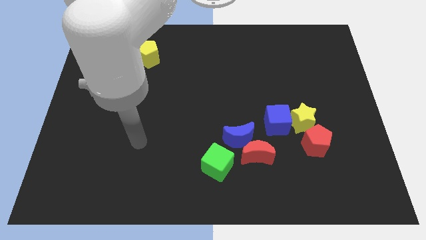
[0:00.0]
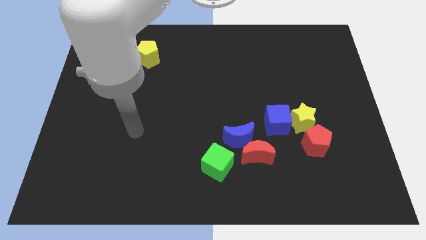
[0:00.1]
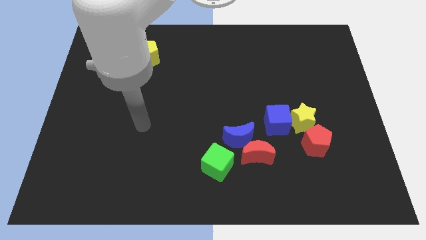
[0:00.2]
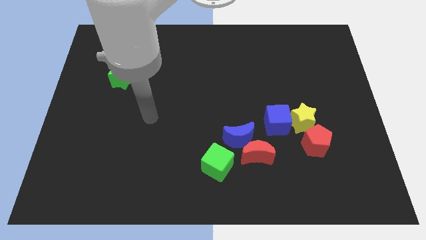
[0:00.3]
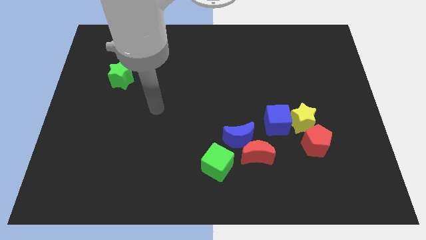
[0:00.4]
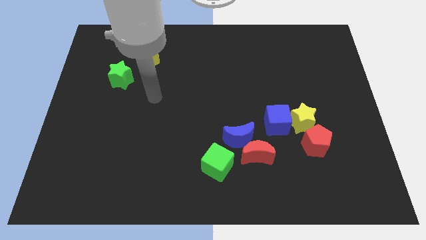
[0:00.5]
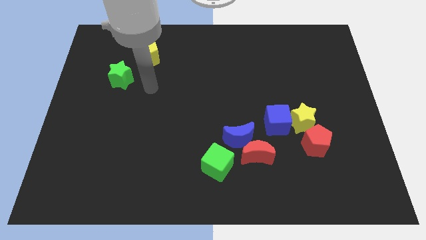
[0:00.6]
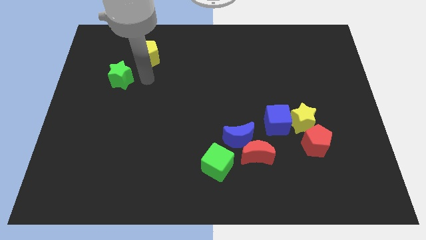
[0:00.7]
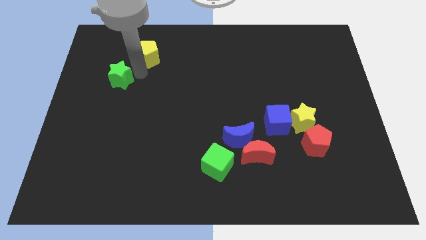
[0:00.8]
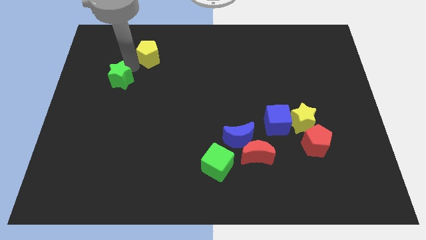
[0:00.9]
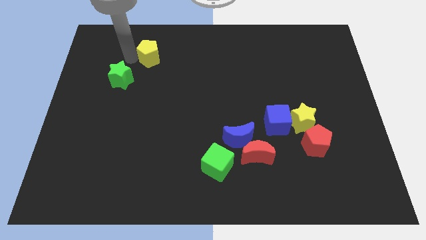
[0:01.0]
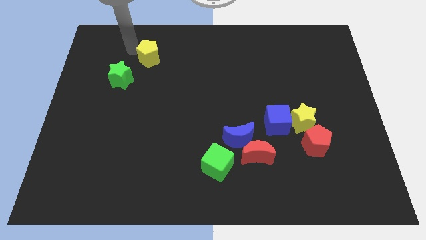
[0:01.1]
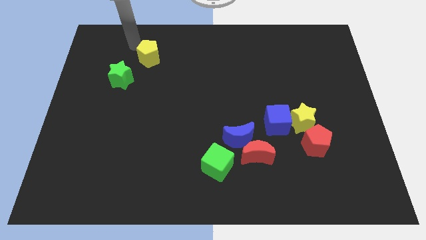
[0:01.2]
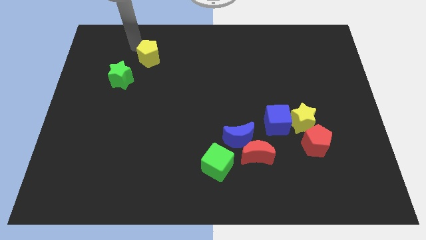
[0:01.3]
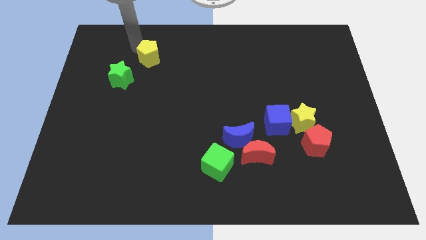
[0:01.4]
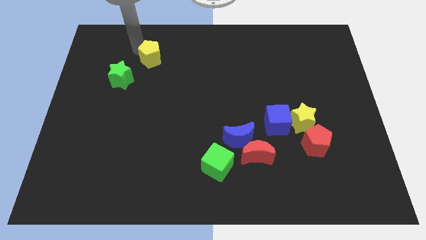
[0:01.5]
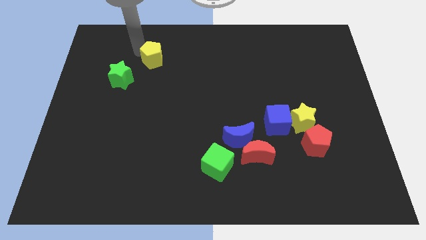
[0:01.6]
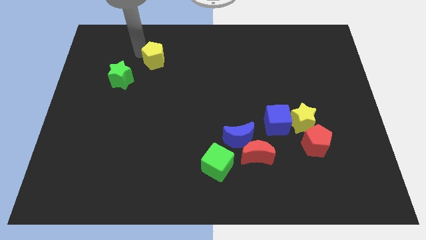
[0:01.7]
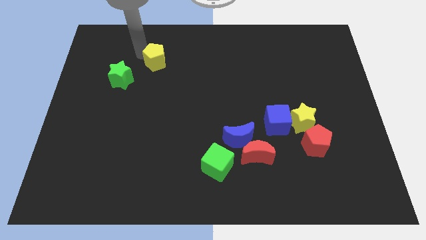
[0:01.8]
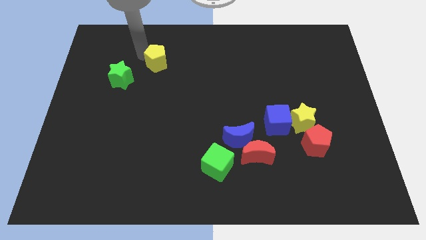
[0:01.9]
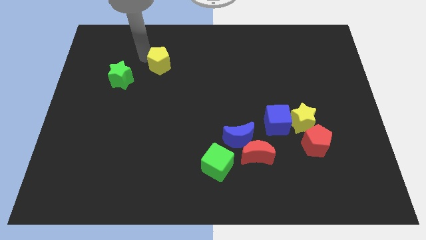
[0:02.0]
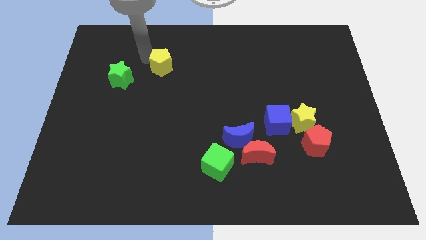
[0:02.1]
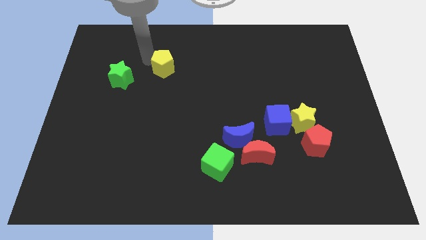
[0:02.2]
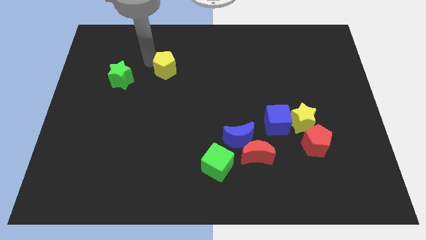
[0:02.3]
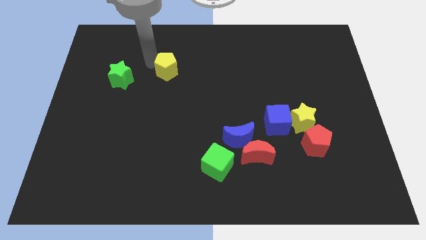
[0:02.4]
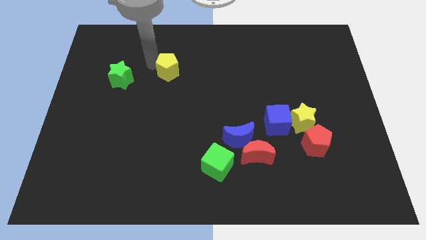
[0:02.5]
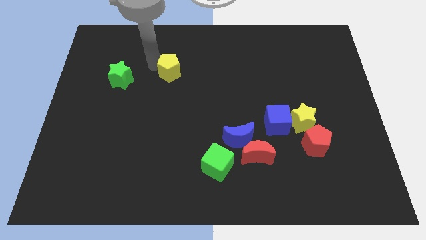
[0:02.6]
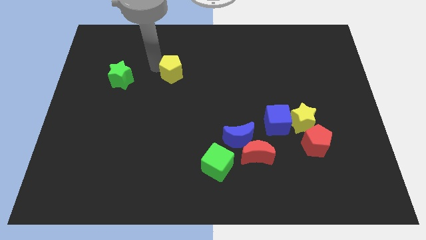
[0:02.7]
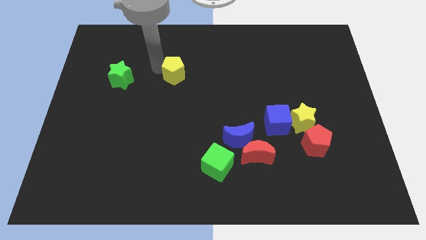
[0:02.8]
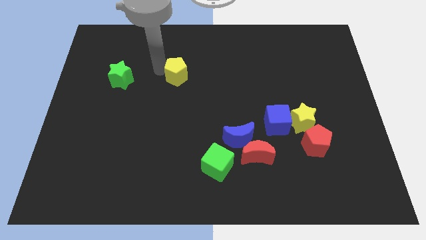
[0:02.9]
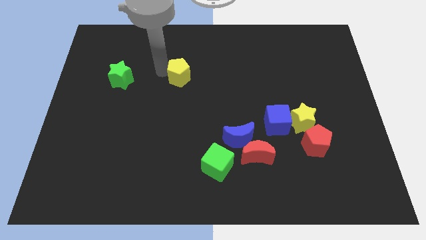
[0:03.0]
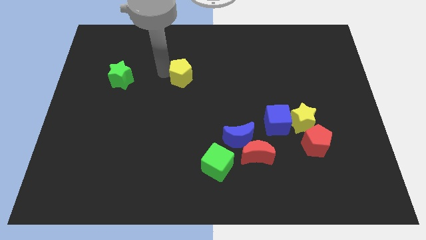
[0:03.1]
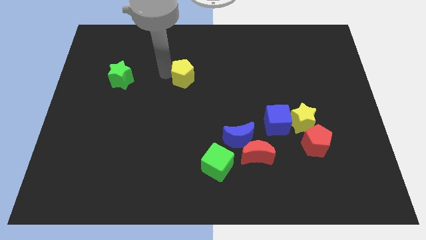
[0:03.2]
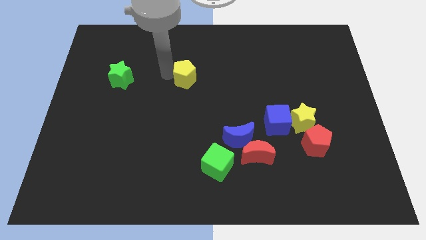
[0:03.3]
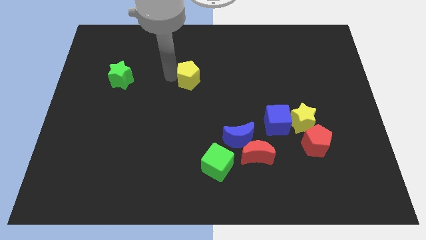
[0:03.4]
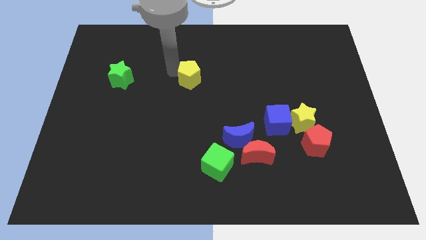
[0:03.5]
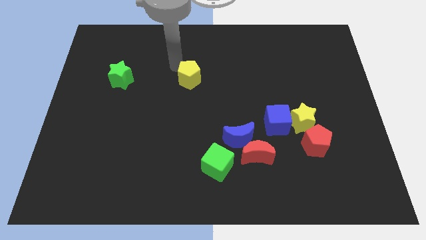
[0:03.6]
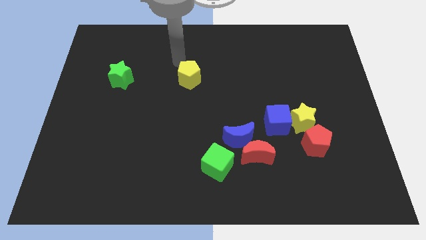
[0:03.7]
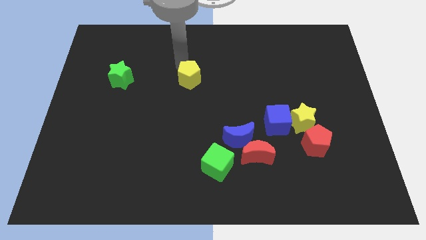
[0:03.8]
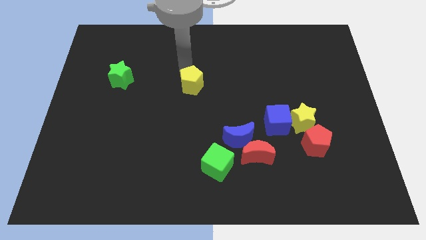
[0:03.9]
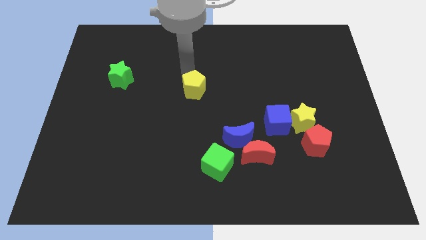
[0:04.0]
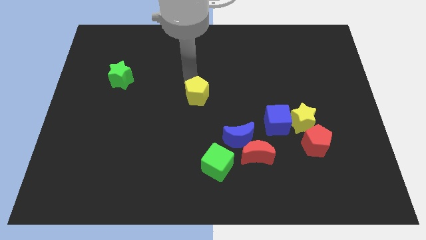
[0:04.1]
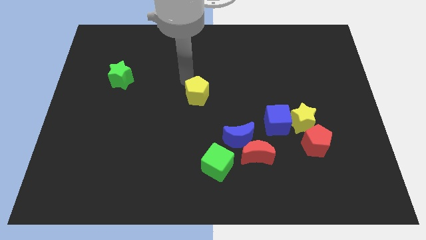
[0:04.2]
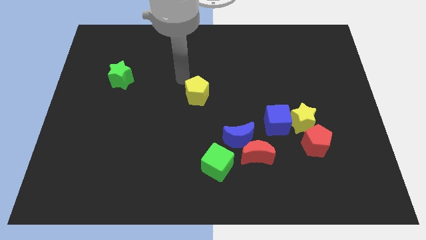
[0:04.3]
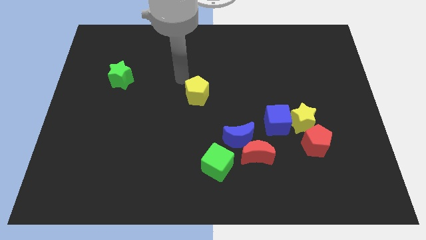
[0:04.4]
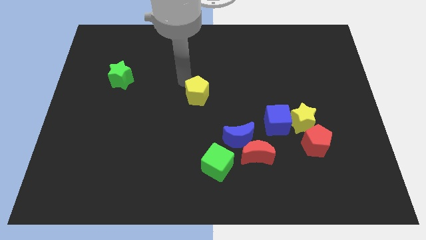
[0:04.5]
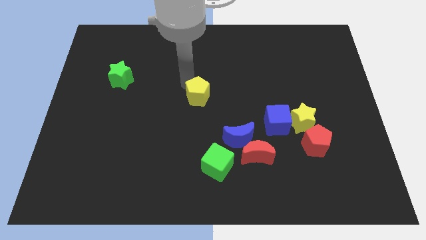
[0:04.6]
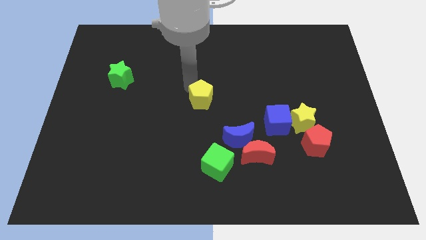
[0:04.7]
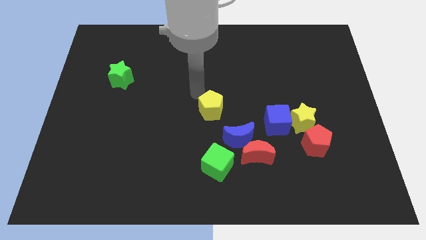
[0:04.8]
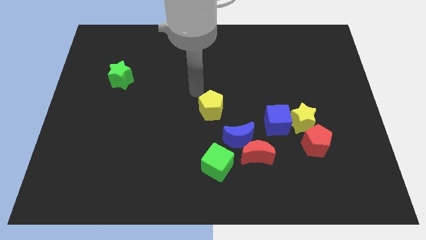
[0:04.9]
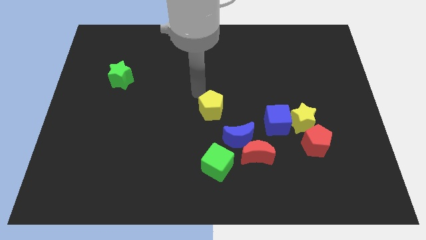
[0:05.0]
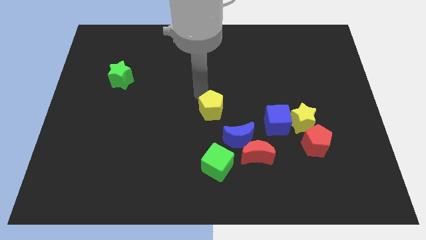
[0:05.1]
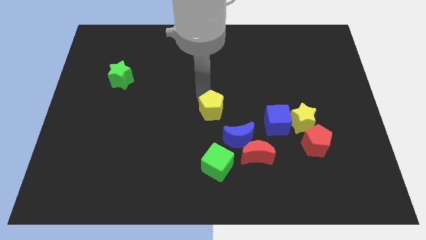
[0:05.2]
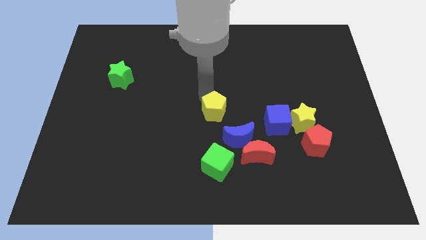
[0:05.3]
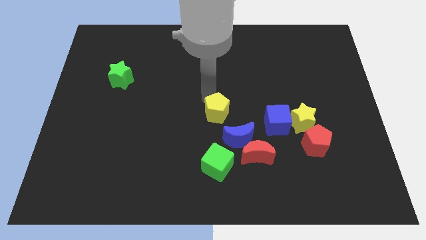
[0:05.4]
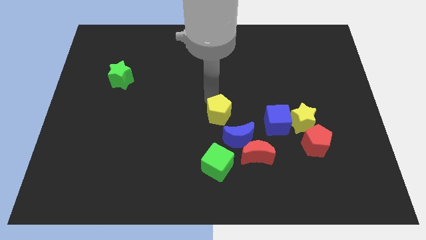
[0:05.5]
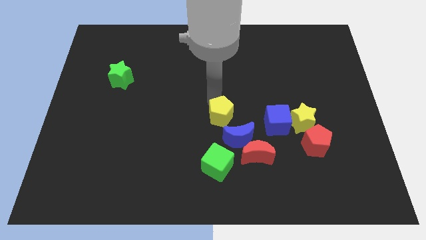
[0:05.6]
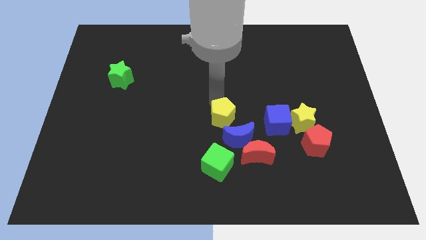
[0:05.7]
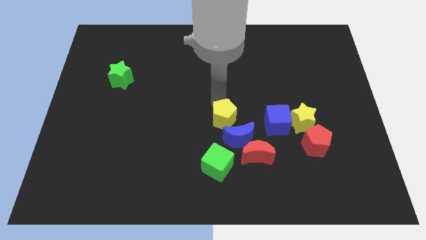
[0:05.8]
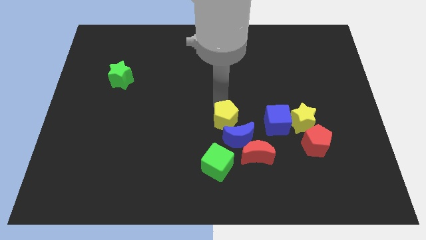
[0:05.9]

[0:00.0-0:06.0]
slide the yellow pentagon to the blue moon

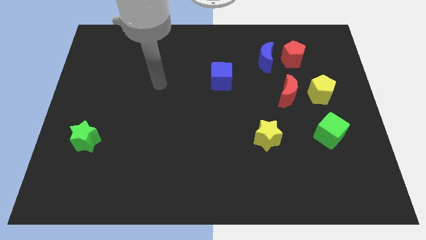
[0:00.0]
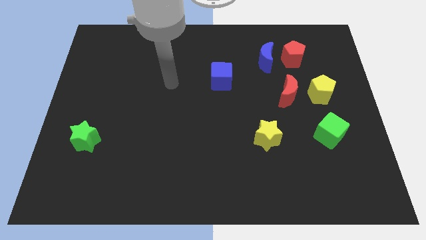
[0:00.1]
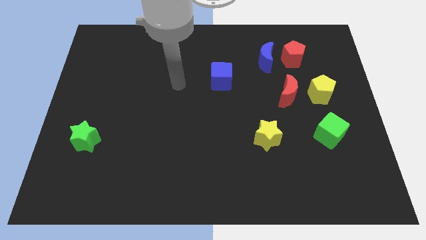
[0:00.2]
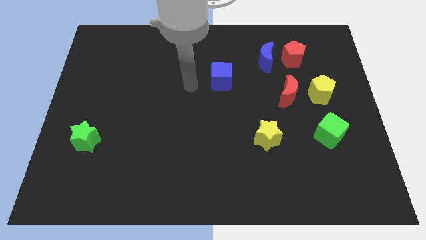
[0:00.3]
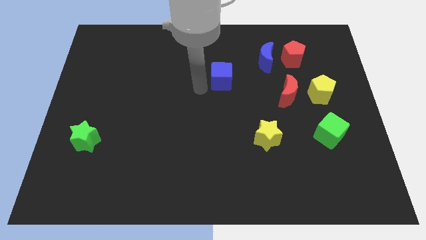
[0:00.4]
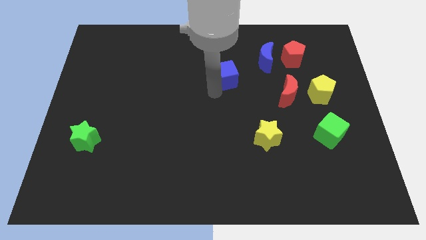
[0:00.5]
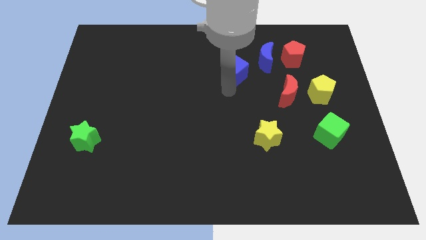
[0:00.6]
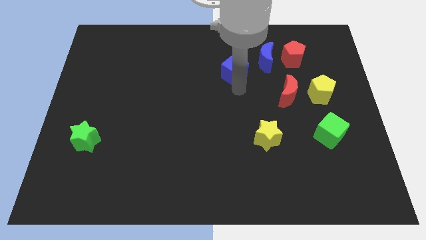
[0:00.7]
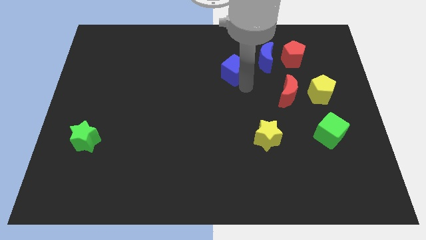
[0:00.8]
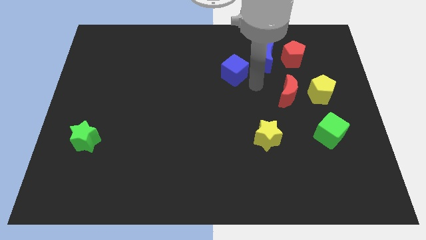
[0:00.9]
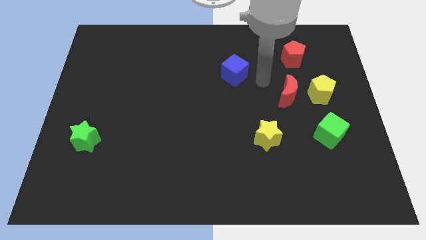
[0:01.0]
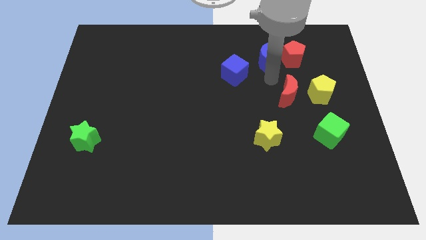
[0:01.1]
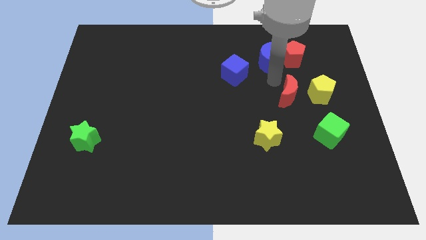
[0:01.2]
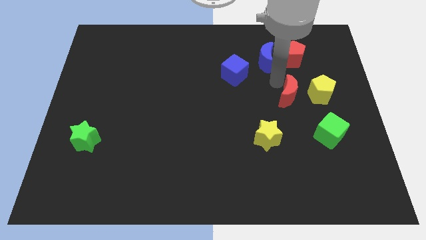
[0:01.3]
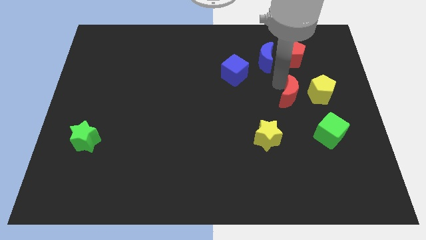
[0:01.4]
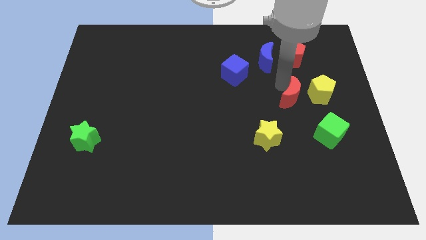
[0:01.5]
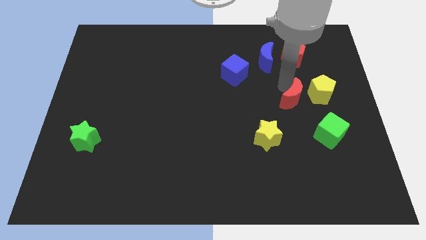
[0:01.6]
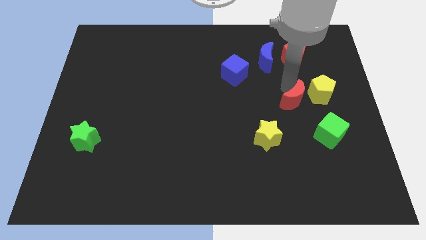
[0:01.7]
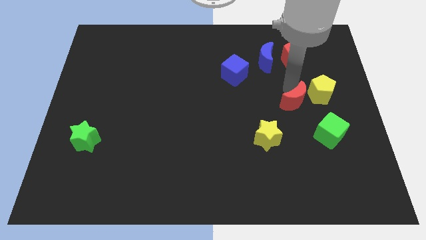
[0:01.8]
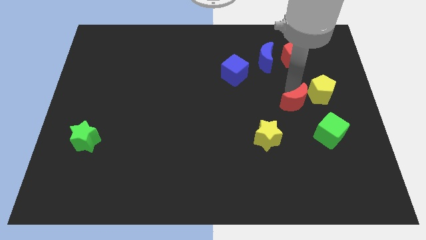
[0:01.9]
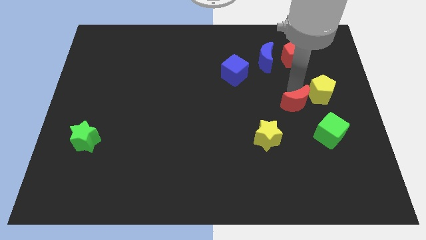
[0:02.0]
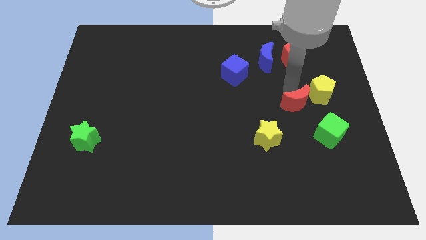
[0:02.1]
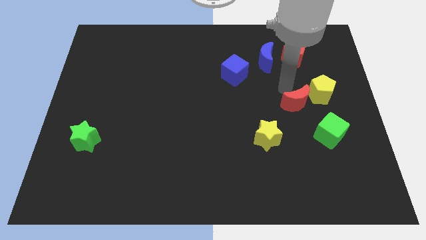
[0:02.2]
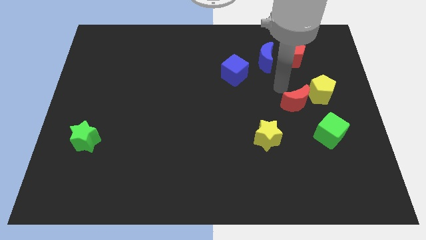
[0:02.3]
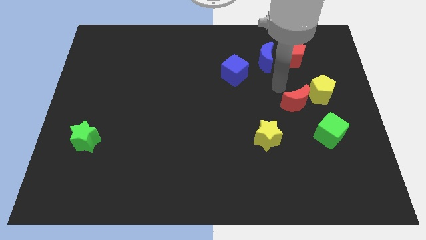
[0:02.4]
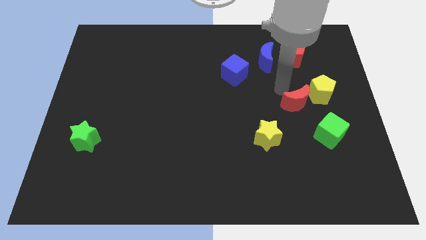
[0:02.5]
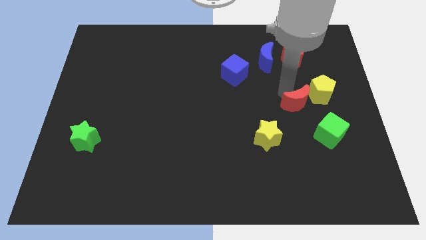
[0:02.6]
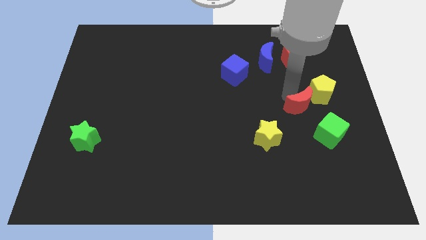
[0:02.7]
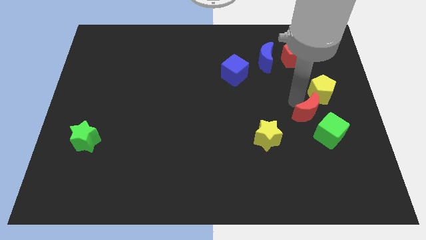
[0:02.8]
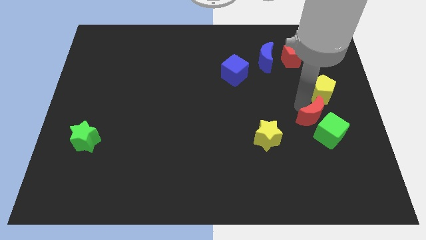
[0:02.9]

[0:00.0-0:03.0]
push the red moon towards the green cube
